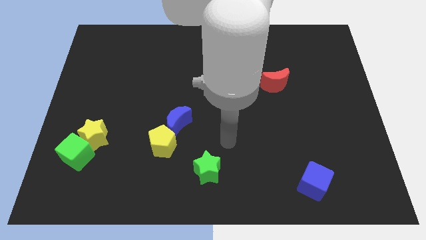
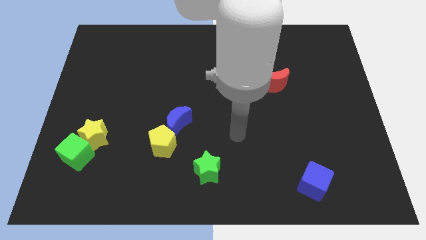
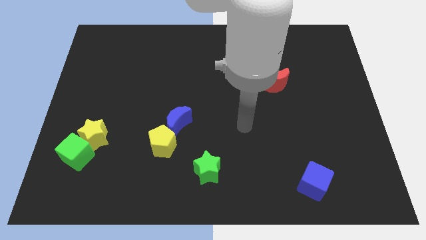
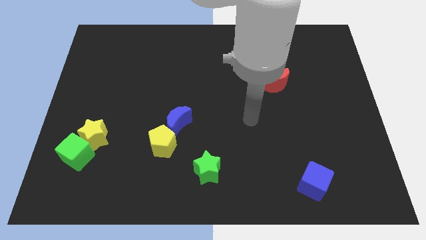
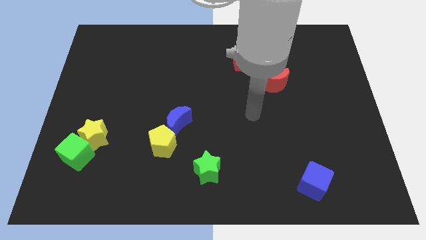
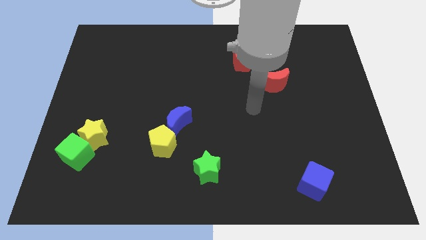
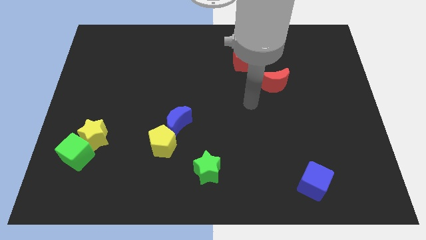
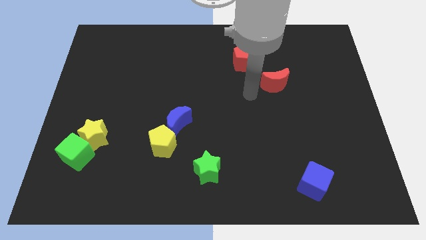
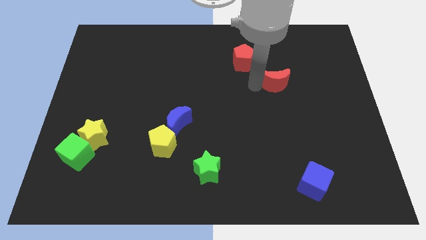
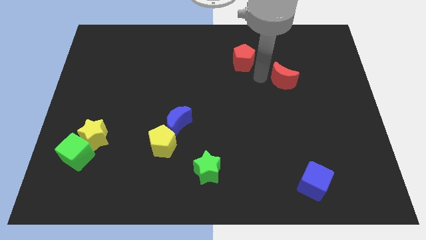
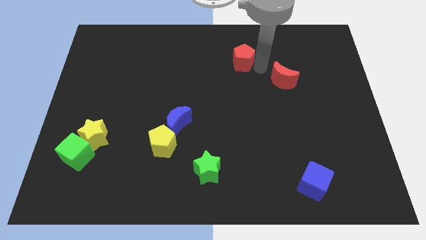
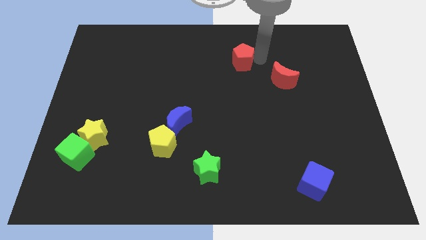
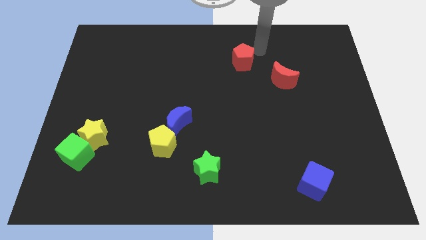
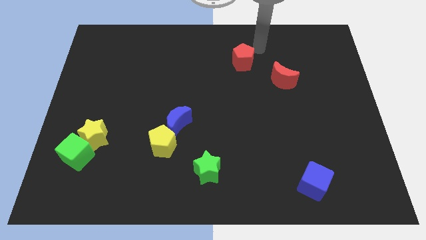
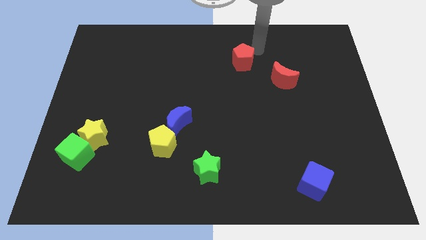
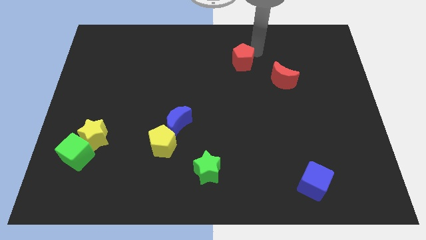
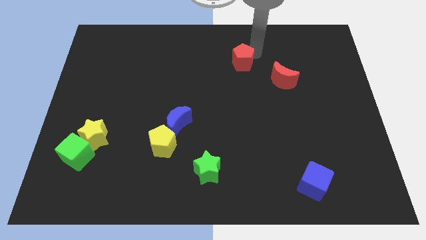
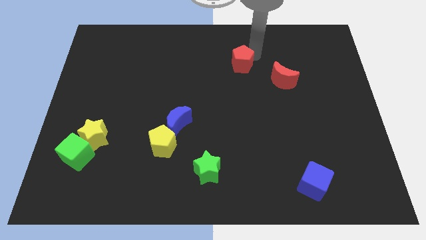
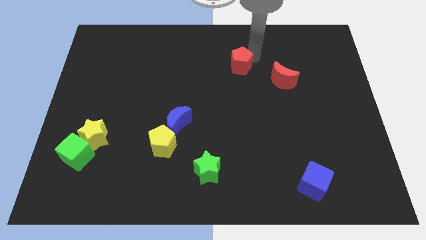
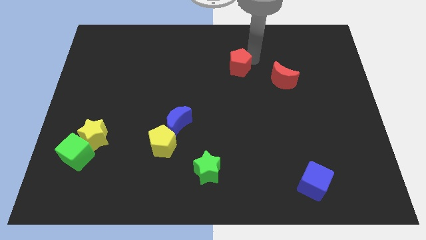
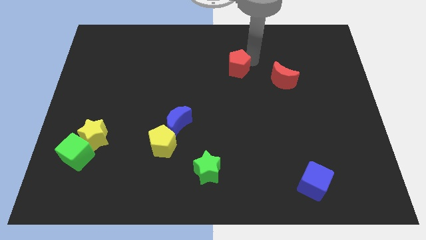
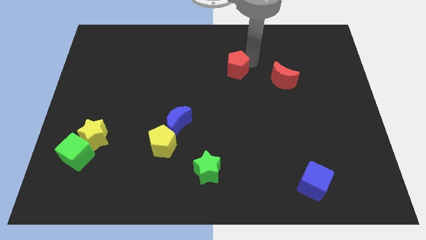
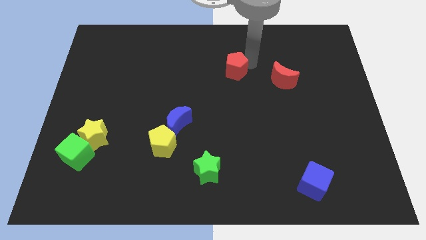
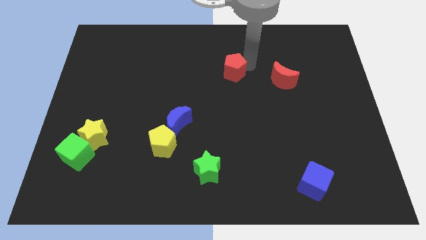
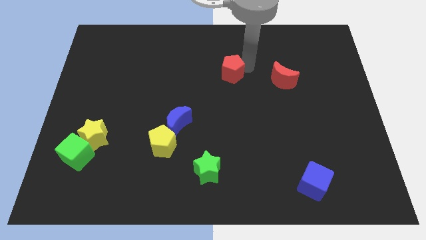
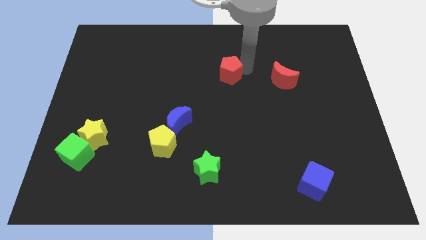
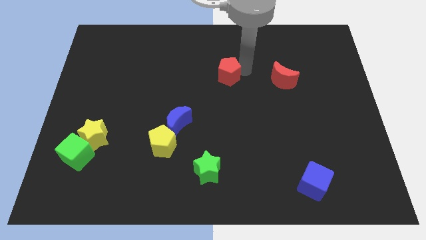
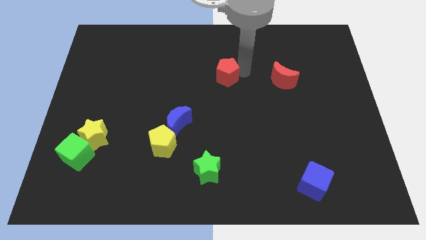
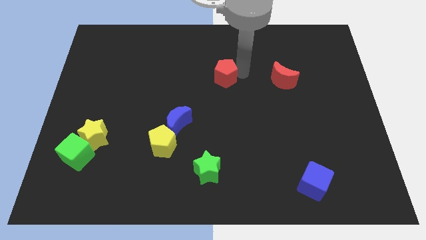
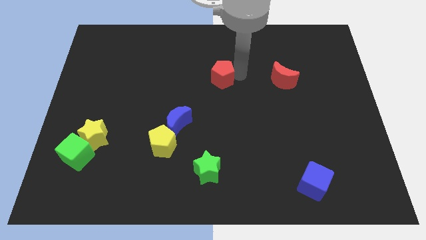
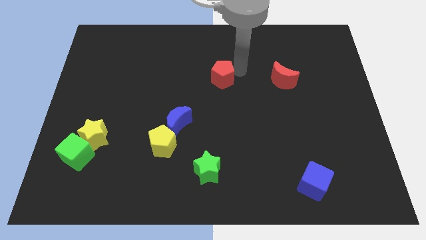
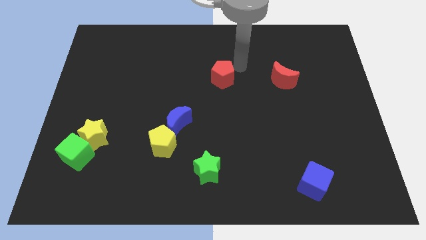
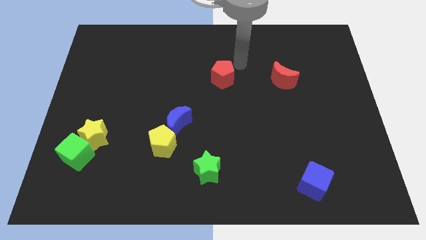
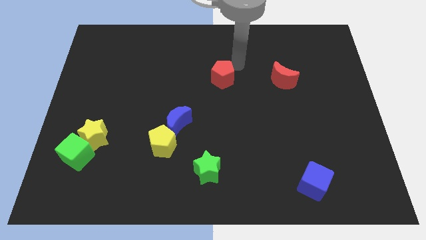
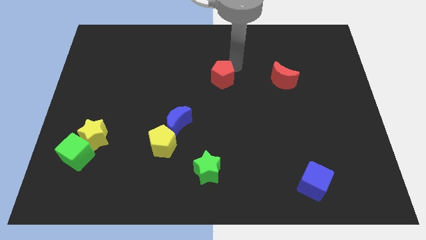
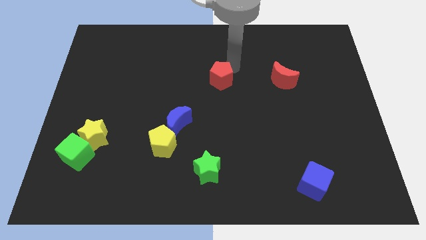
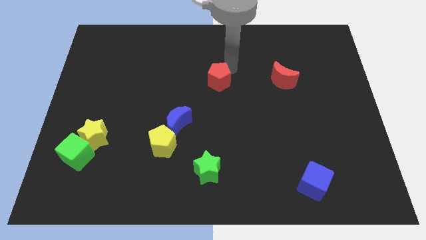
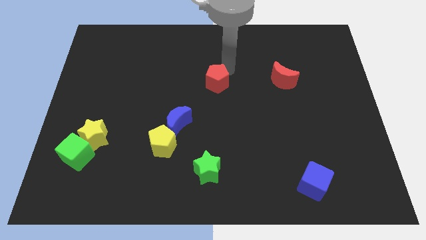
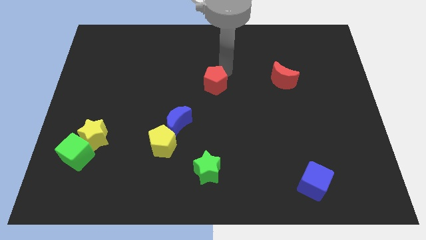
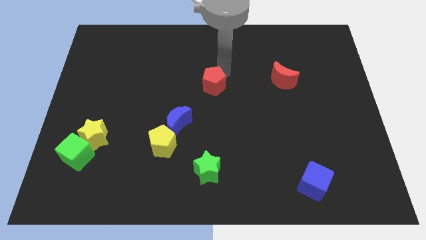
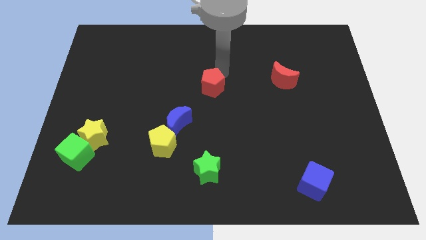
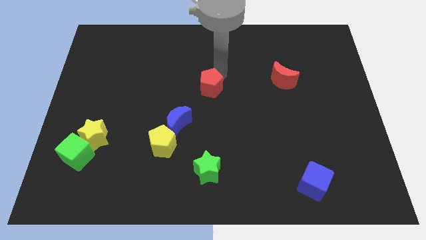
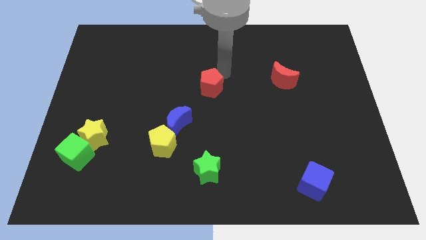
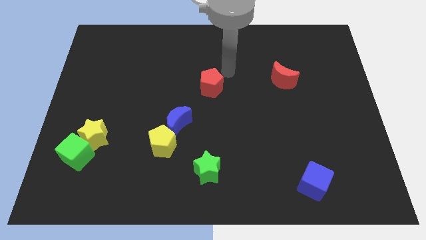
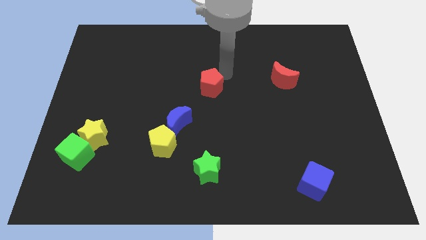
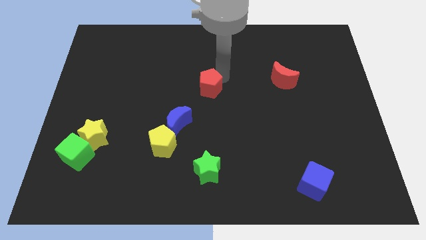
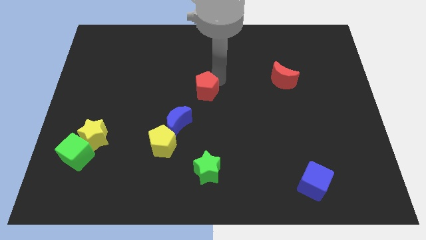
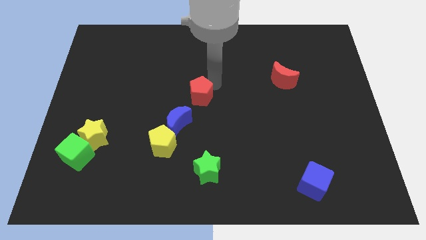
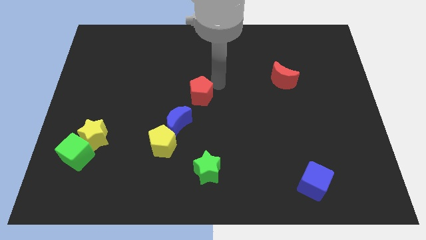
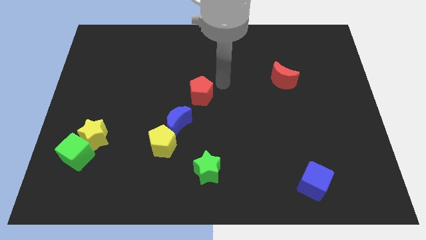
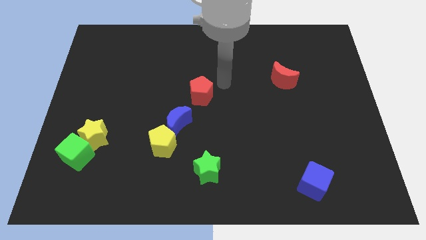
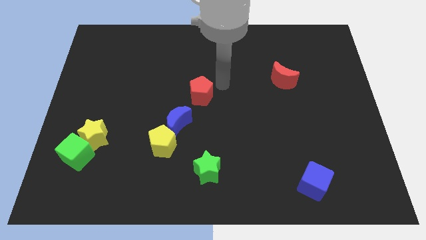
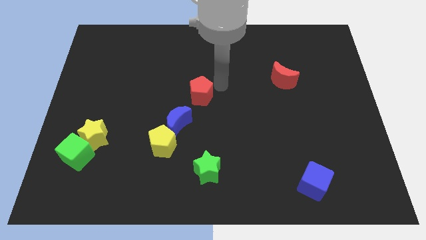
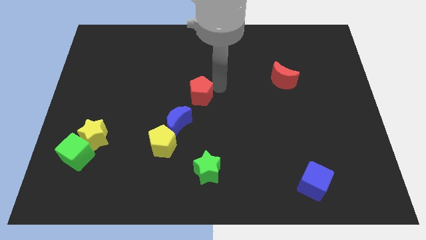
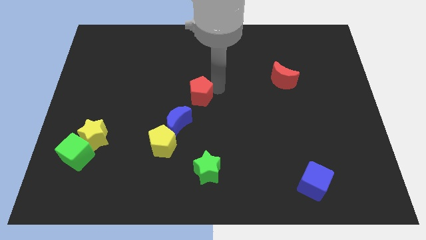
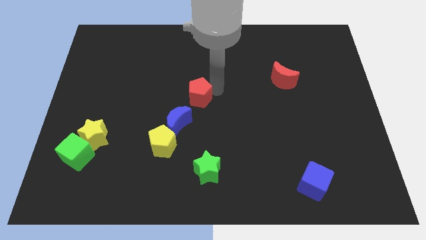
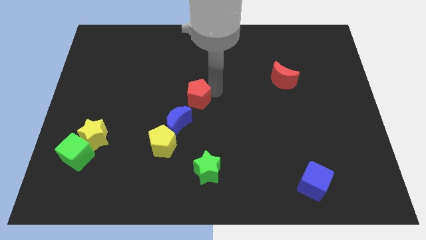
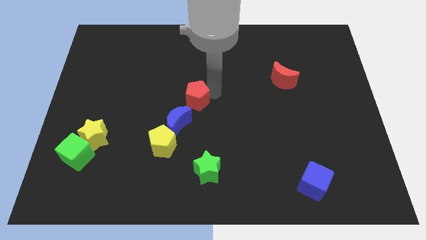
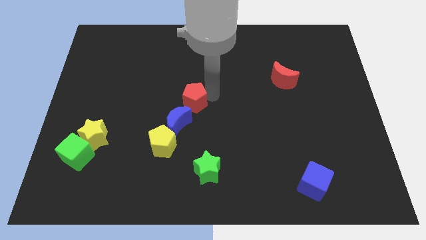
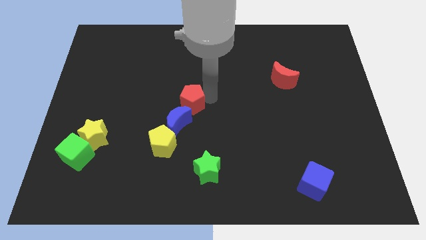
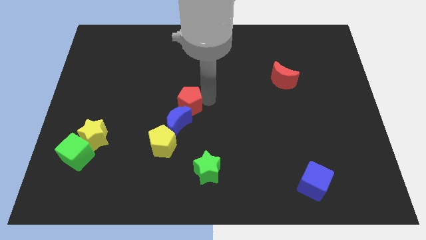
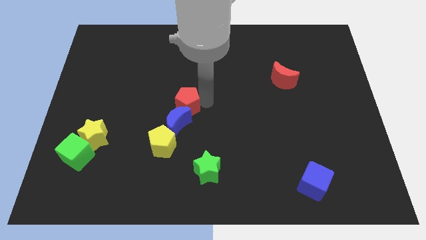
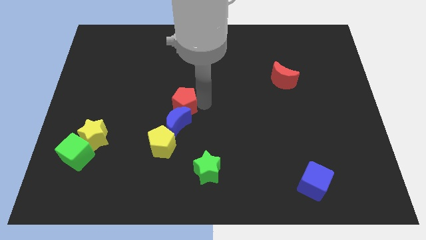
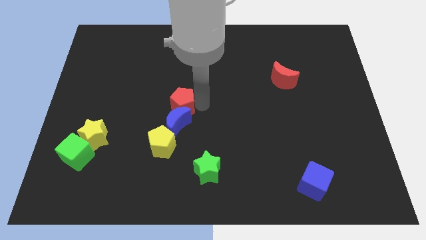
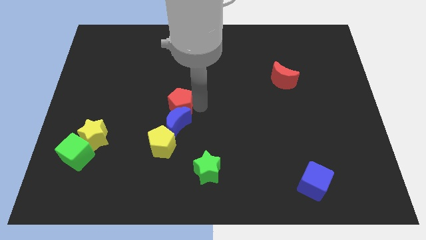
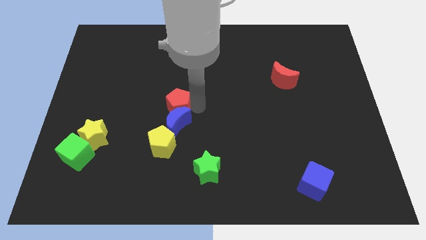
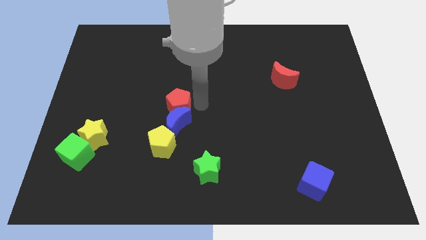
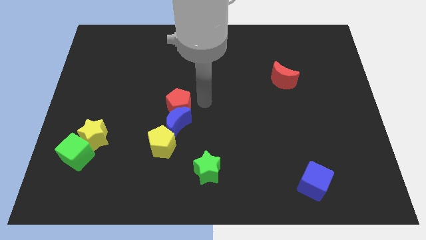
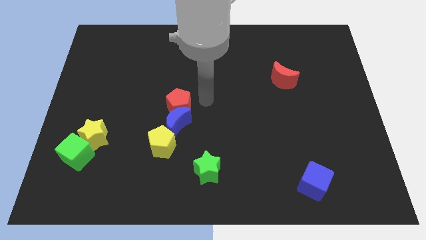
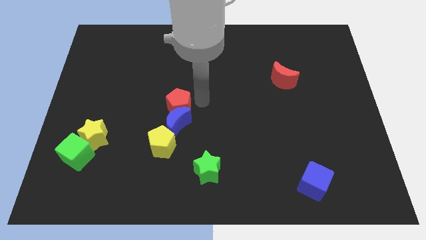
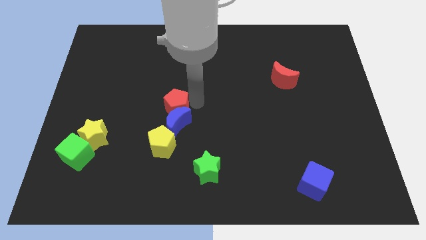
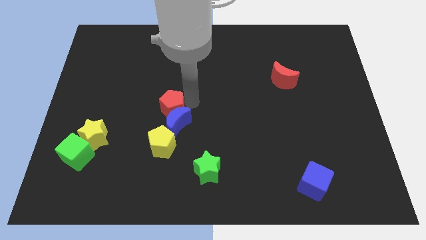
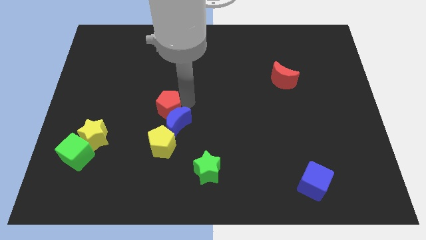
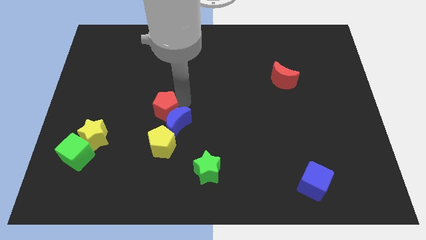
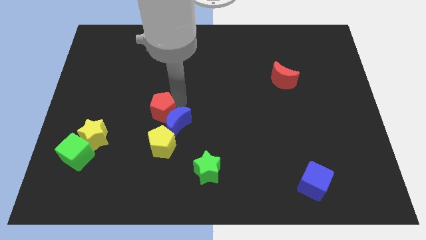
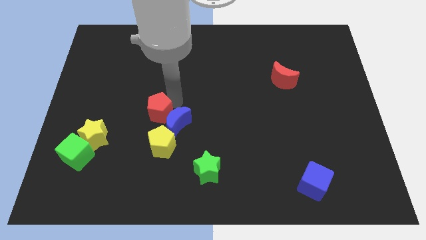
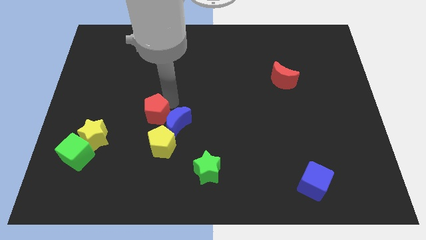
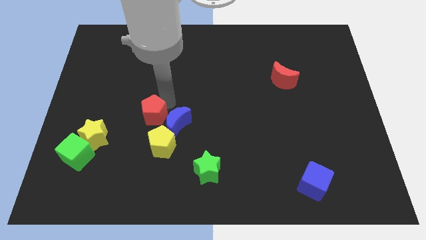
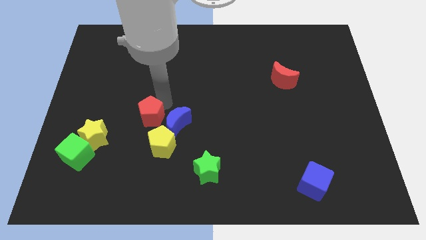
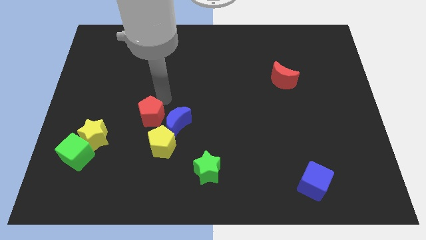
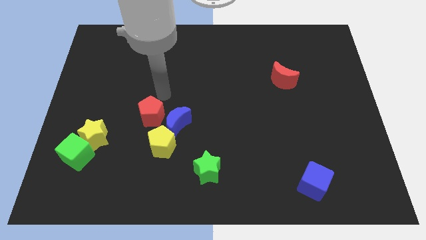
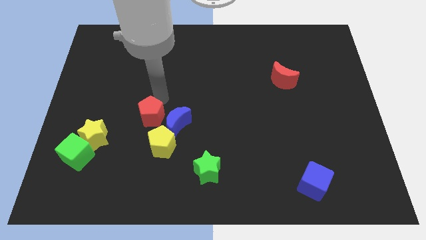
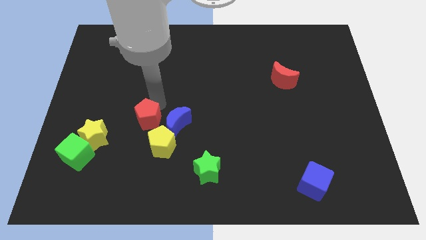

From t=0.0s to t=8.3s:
put the red pentagon to the right of the yellow star
